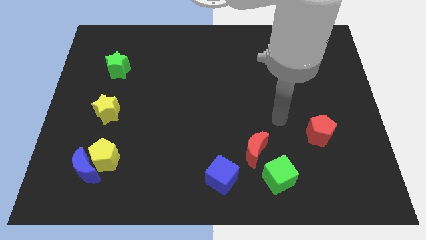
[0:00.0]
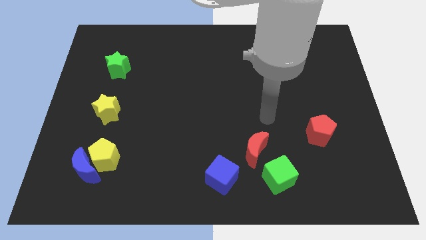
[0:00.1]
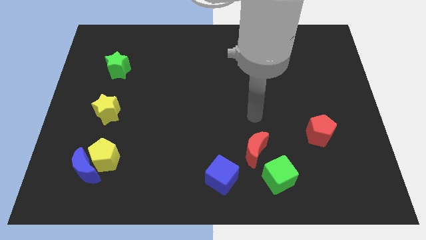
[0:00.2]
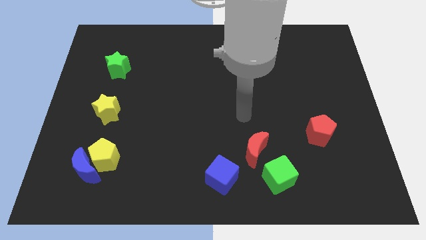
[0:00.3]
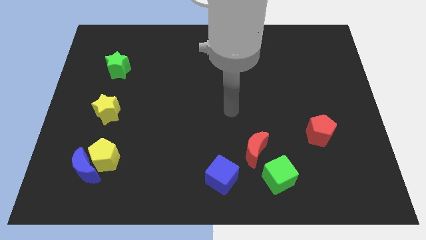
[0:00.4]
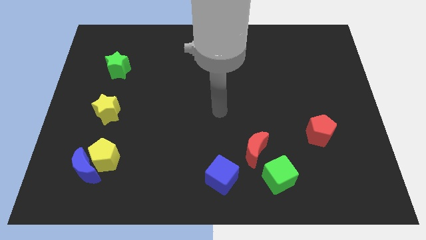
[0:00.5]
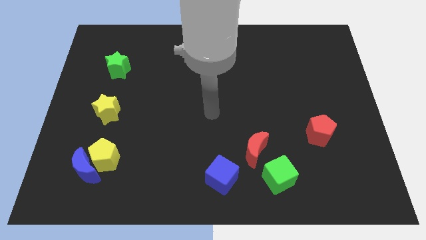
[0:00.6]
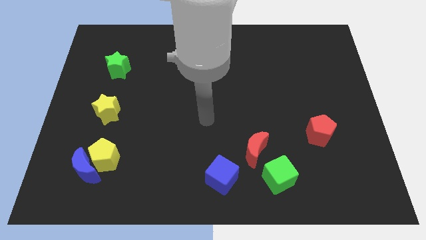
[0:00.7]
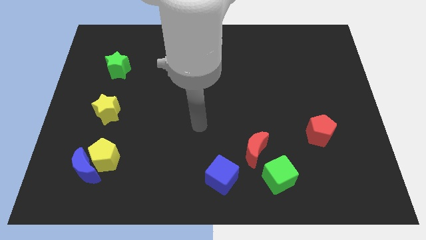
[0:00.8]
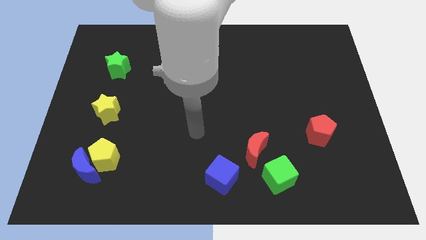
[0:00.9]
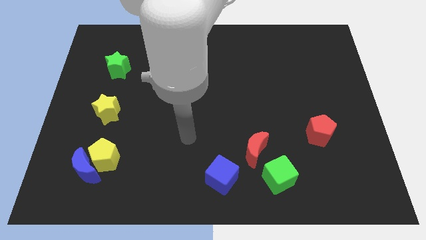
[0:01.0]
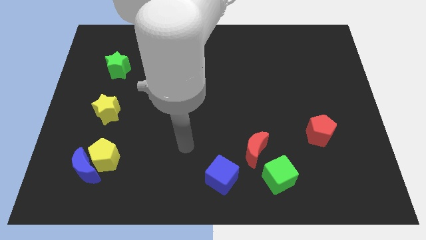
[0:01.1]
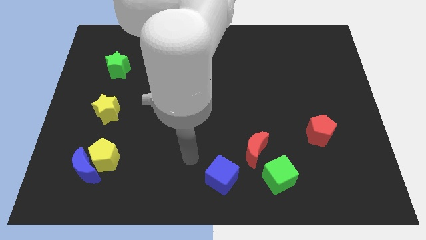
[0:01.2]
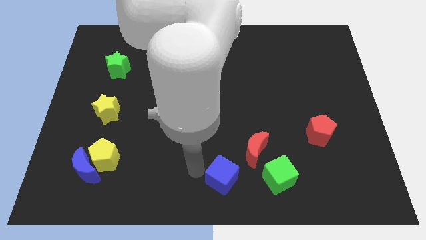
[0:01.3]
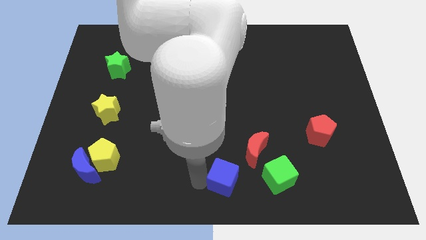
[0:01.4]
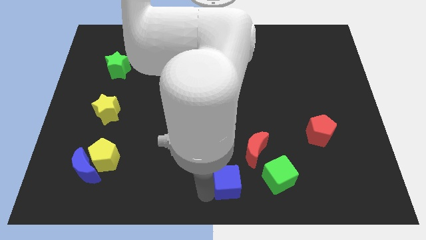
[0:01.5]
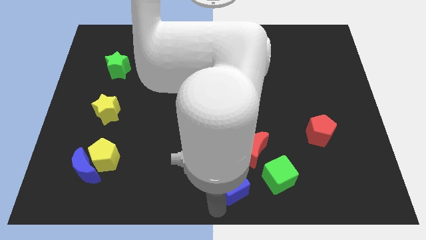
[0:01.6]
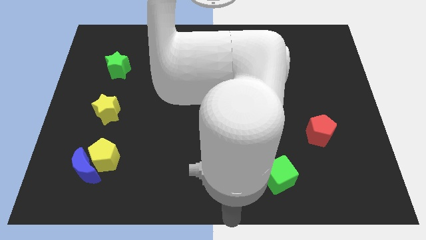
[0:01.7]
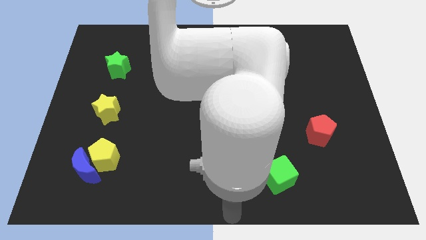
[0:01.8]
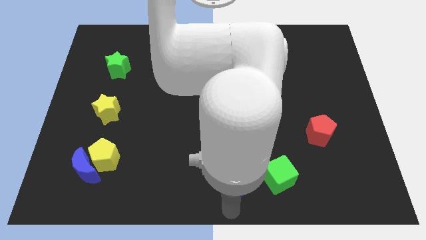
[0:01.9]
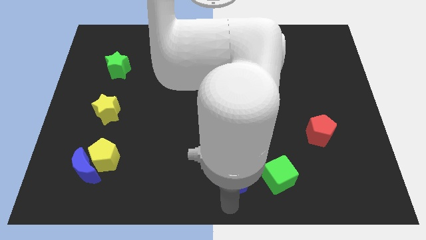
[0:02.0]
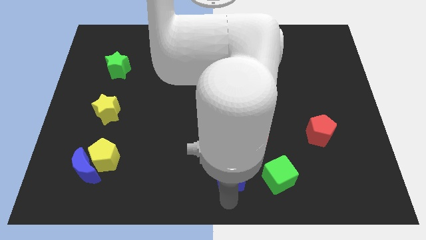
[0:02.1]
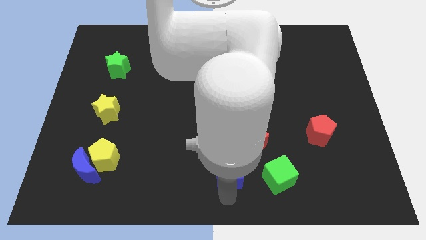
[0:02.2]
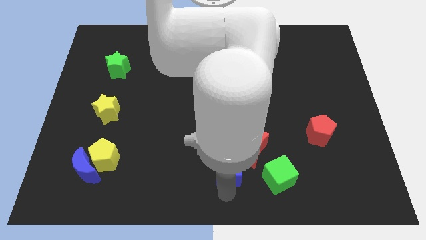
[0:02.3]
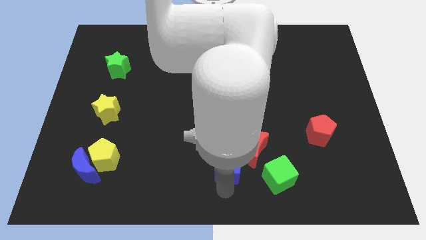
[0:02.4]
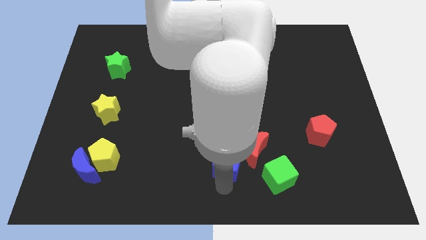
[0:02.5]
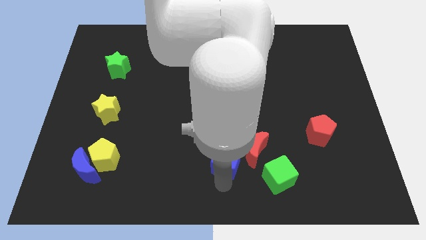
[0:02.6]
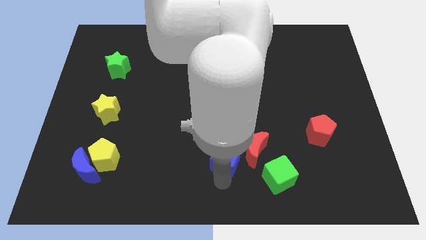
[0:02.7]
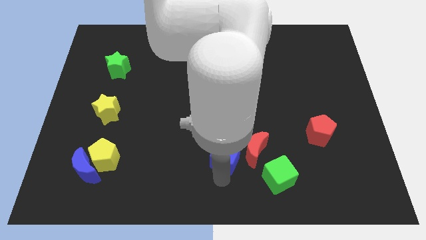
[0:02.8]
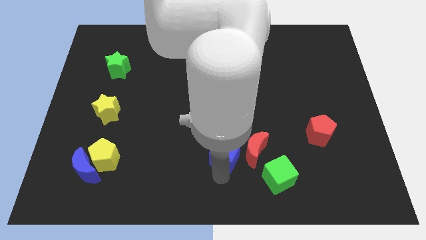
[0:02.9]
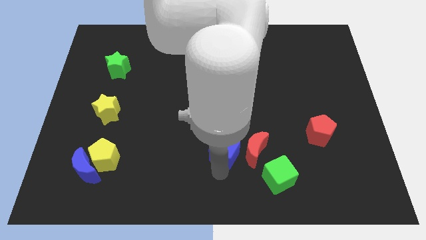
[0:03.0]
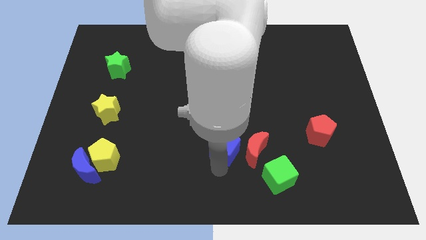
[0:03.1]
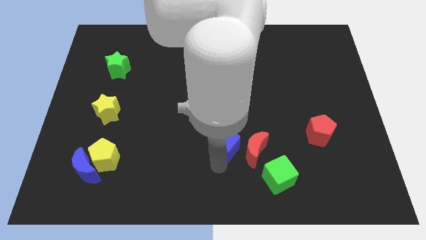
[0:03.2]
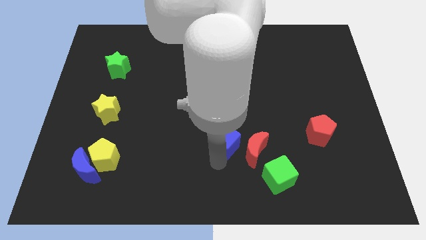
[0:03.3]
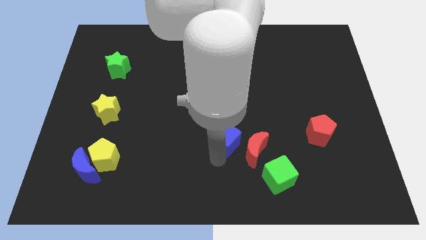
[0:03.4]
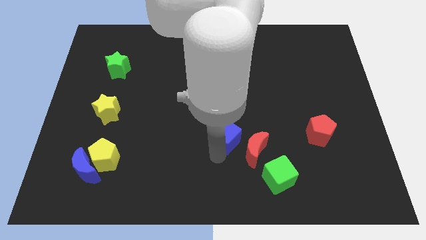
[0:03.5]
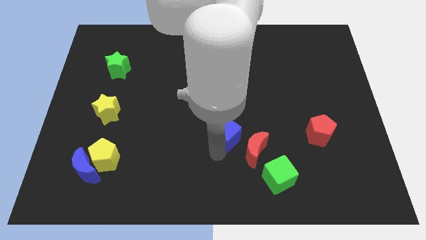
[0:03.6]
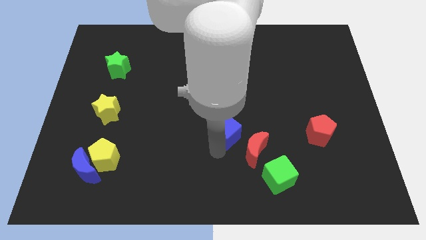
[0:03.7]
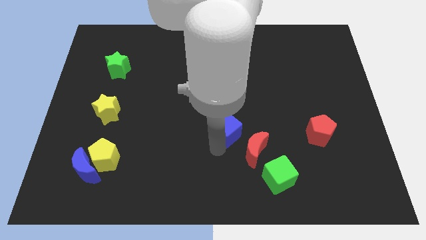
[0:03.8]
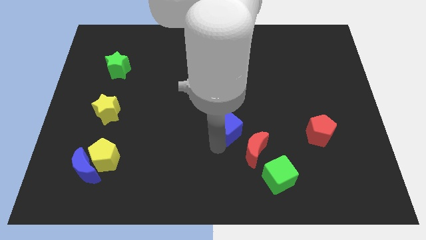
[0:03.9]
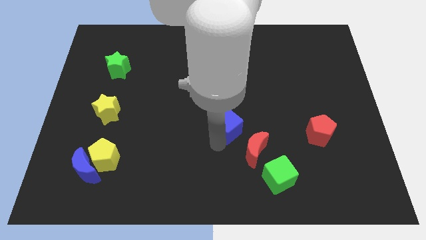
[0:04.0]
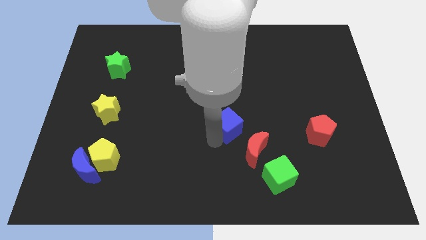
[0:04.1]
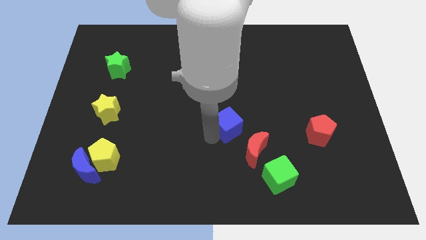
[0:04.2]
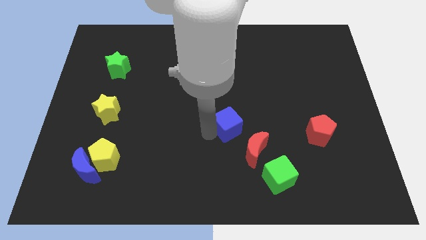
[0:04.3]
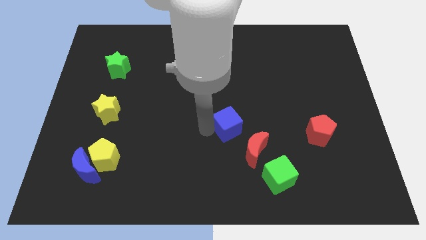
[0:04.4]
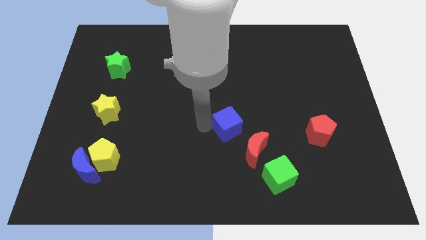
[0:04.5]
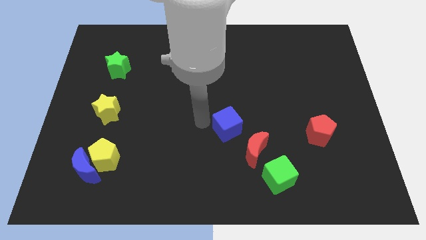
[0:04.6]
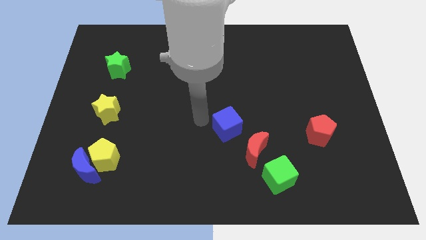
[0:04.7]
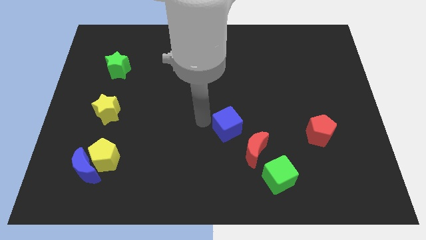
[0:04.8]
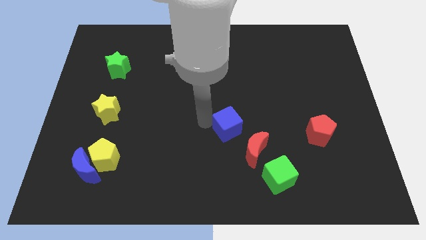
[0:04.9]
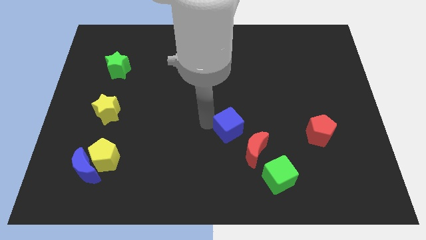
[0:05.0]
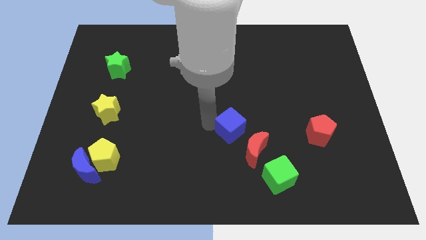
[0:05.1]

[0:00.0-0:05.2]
push the blue cube to the top side of the red moon

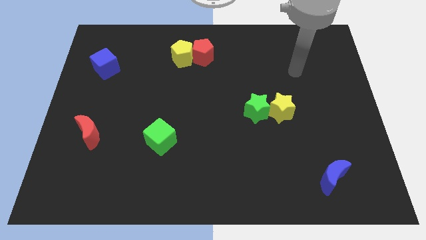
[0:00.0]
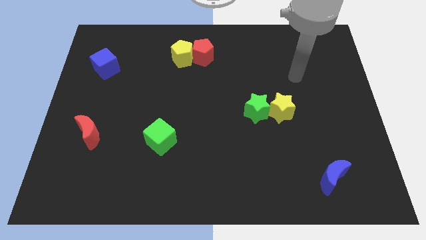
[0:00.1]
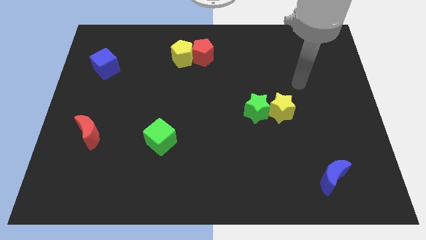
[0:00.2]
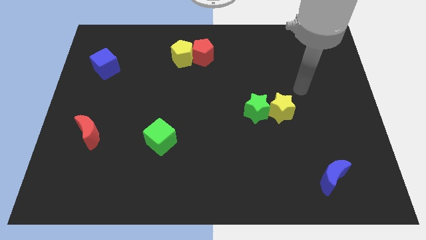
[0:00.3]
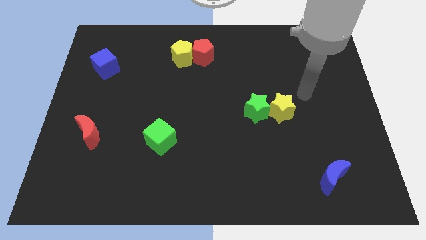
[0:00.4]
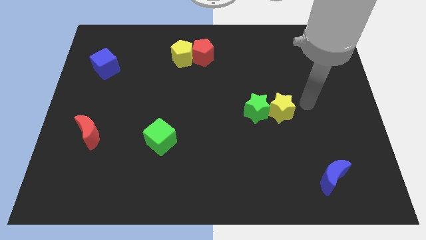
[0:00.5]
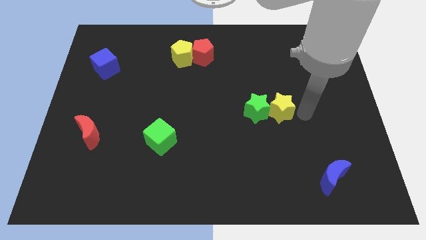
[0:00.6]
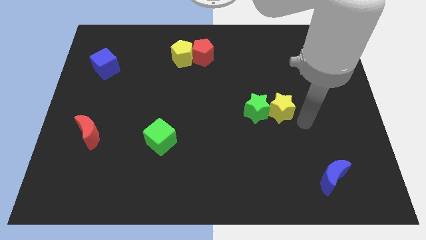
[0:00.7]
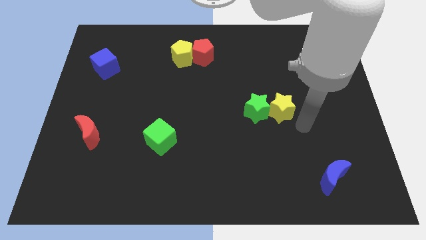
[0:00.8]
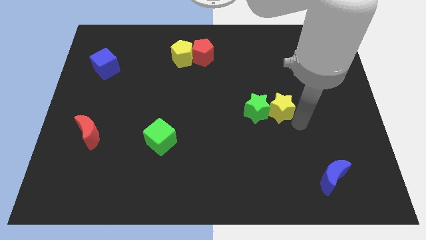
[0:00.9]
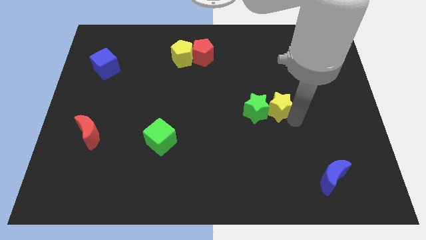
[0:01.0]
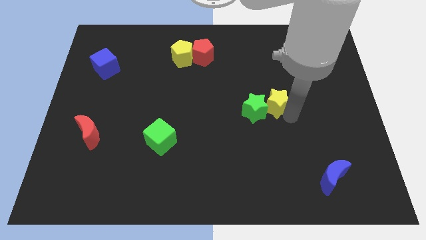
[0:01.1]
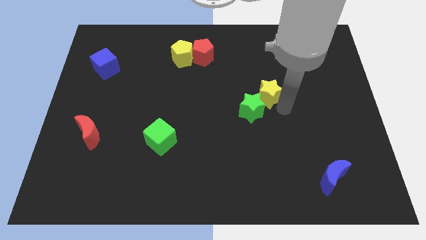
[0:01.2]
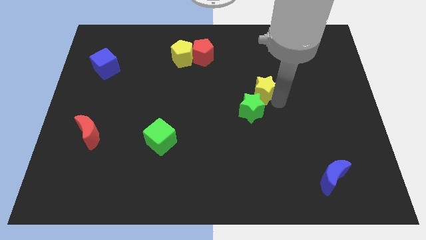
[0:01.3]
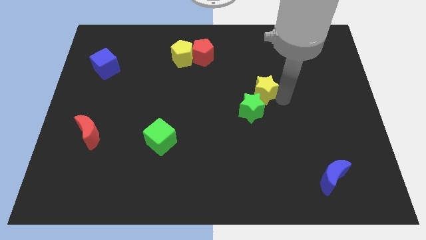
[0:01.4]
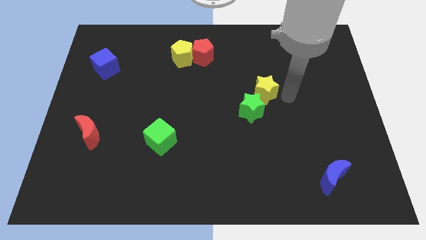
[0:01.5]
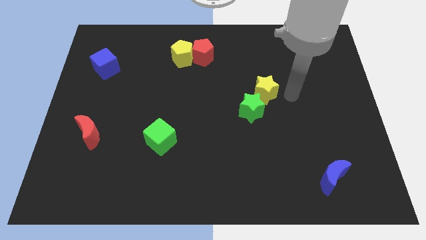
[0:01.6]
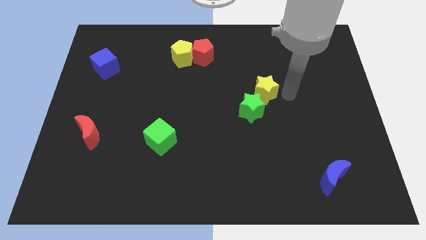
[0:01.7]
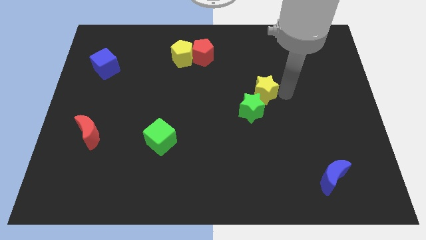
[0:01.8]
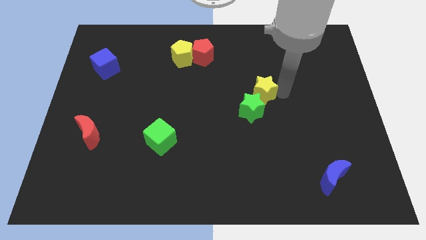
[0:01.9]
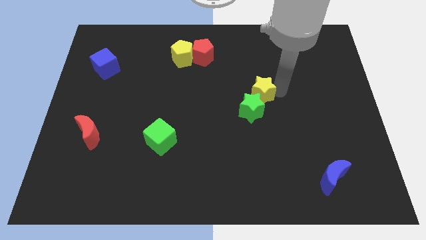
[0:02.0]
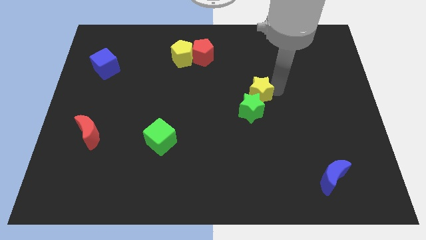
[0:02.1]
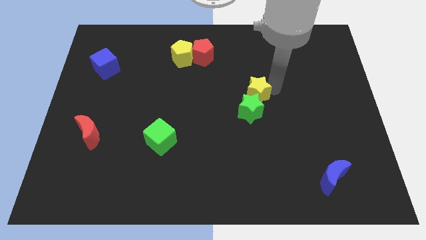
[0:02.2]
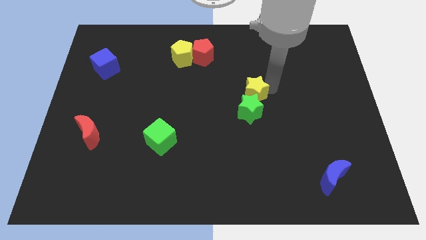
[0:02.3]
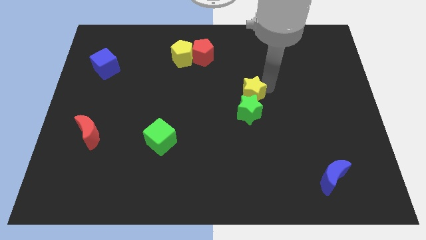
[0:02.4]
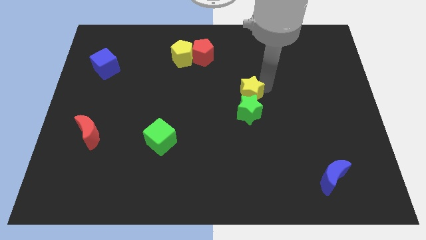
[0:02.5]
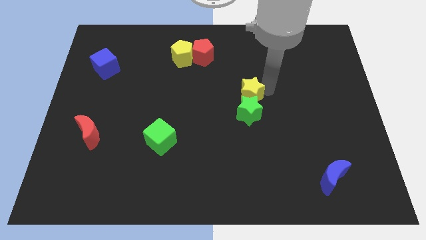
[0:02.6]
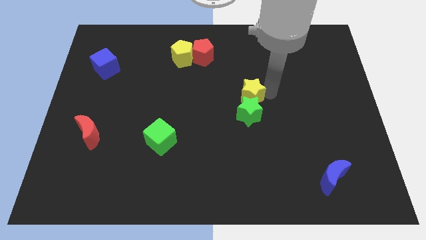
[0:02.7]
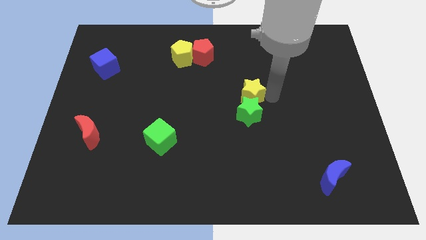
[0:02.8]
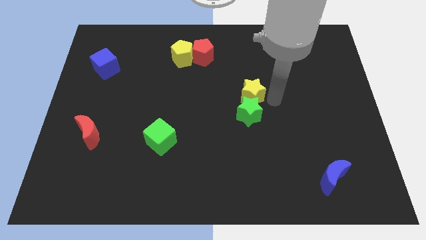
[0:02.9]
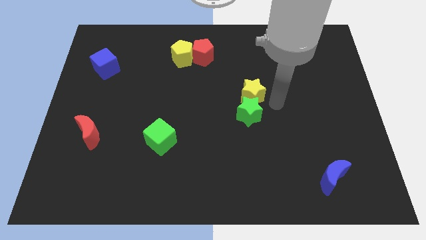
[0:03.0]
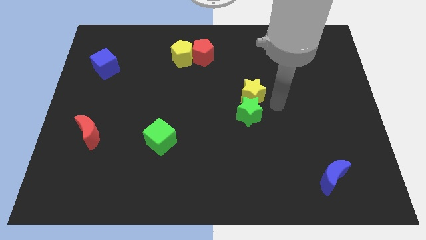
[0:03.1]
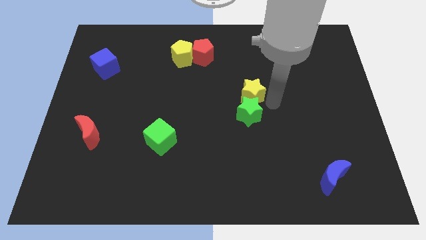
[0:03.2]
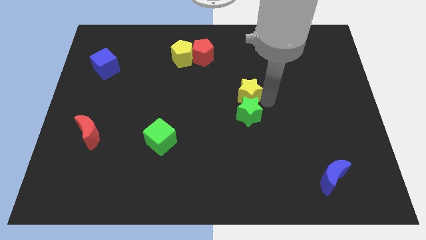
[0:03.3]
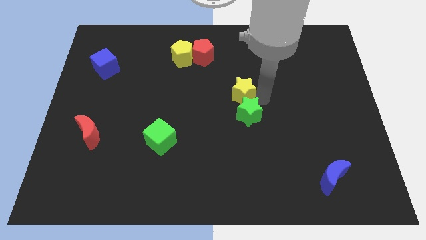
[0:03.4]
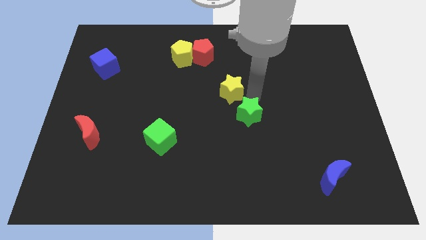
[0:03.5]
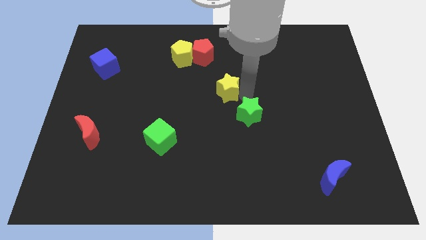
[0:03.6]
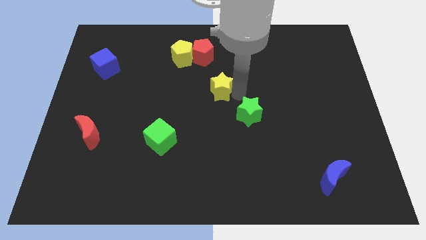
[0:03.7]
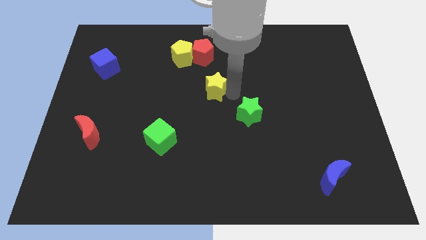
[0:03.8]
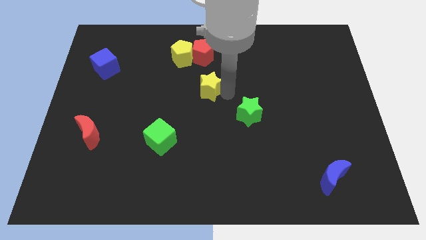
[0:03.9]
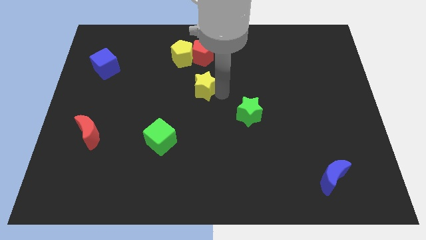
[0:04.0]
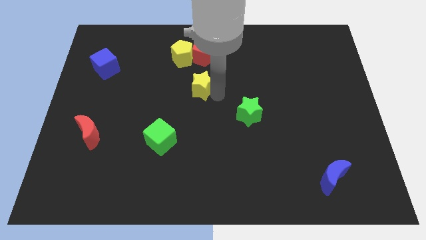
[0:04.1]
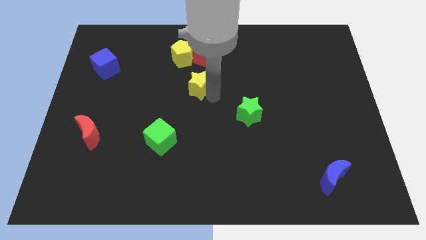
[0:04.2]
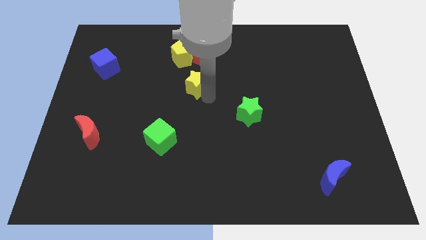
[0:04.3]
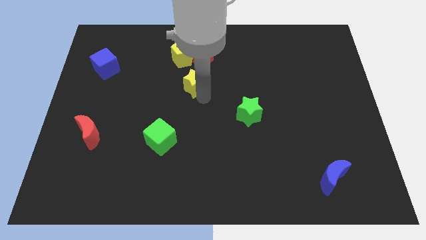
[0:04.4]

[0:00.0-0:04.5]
slide the yellow star to the bottom right of the yellow pentagon
